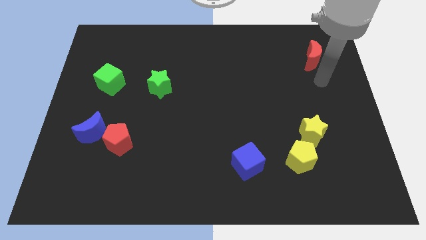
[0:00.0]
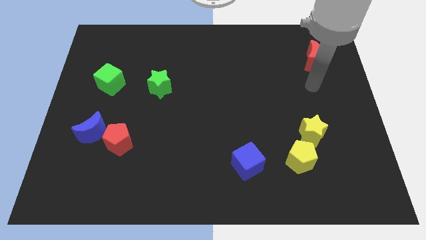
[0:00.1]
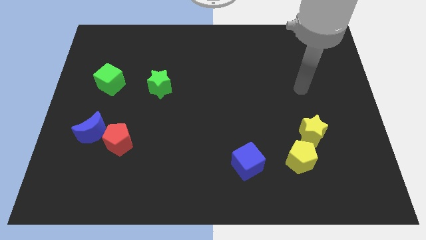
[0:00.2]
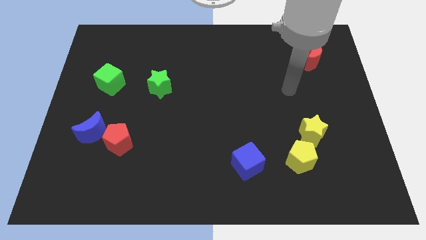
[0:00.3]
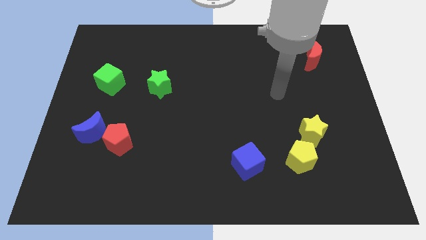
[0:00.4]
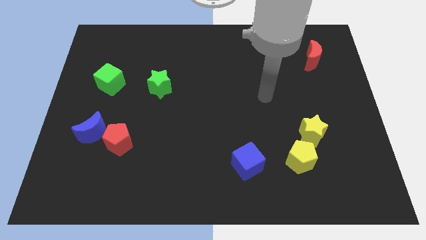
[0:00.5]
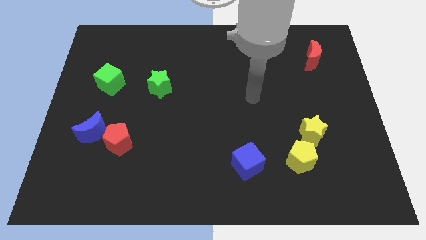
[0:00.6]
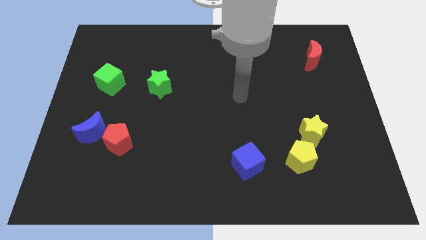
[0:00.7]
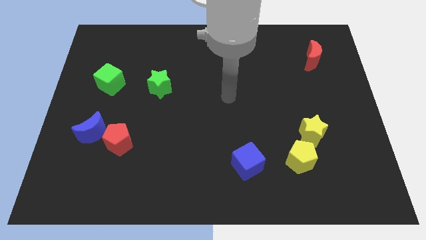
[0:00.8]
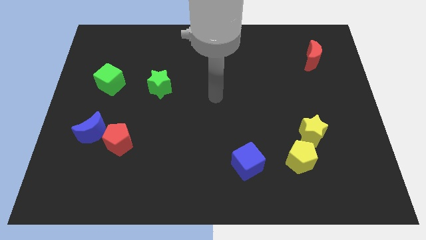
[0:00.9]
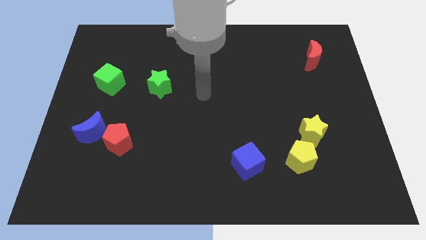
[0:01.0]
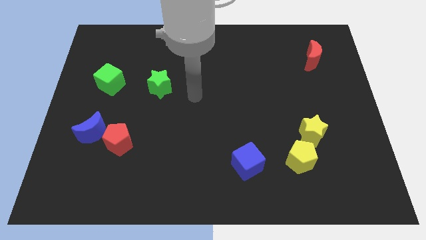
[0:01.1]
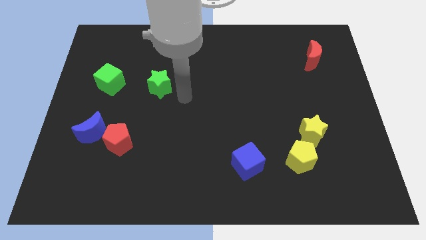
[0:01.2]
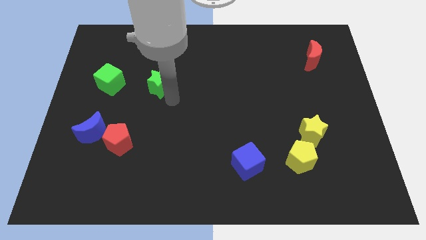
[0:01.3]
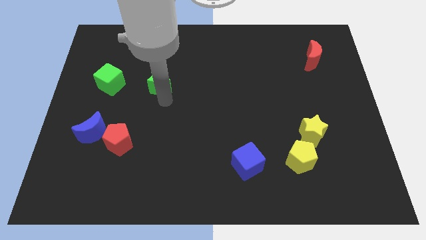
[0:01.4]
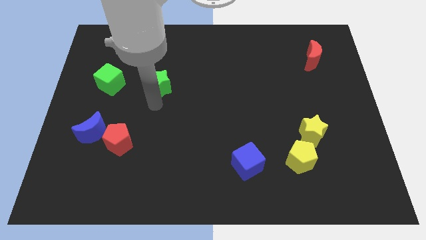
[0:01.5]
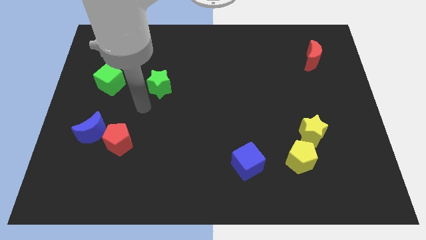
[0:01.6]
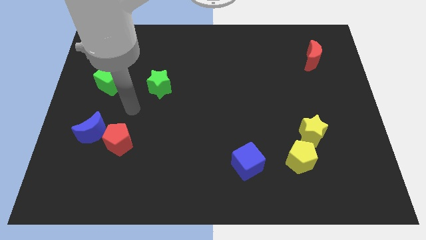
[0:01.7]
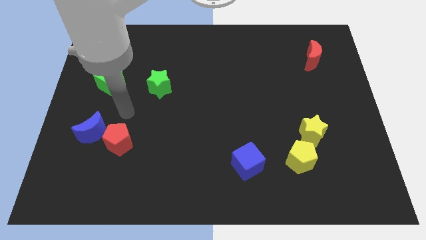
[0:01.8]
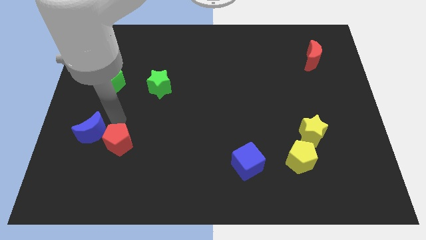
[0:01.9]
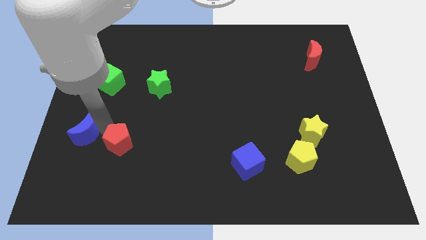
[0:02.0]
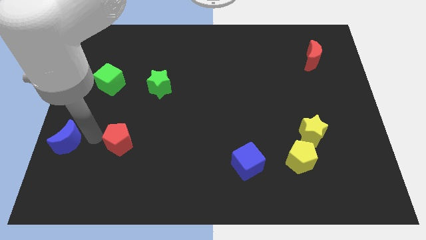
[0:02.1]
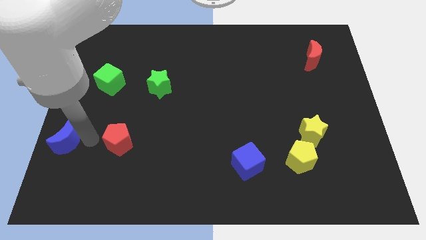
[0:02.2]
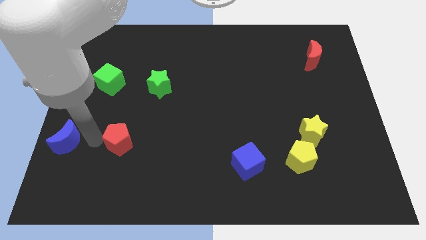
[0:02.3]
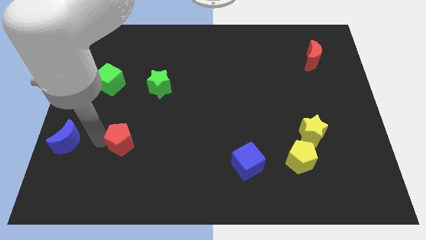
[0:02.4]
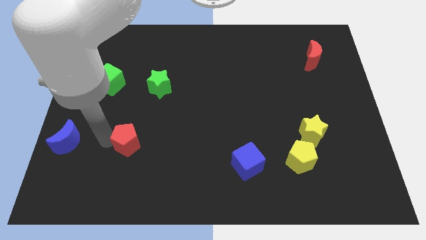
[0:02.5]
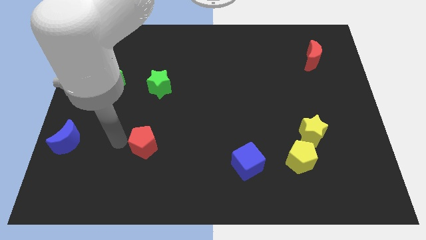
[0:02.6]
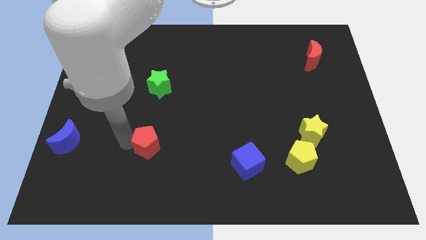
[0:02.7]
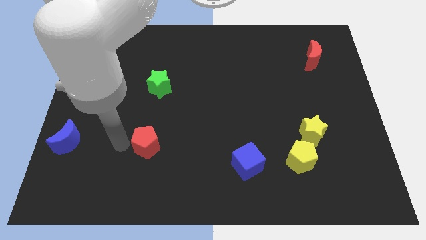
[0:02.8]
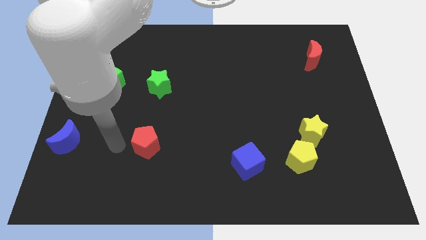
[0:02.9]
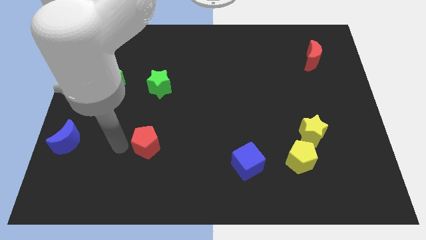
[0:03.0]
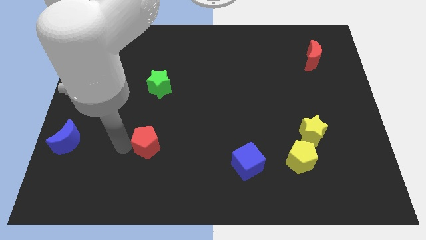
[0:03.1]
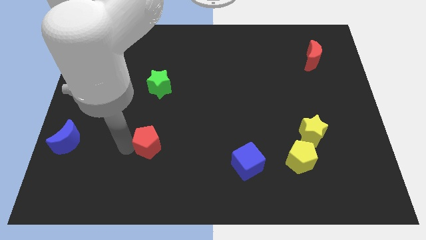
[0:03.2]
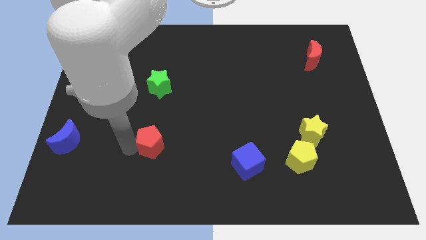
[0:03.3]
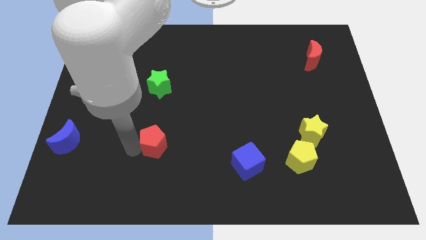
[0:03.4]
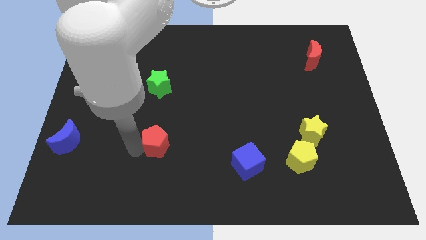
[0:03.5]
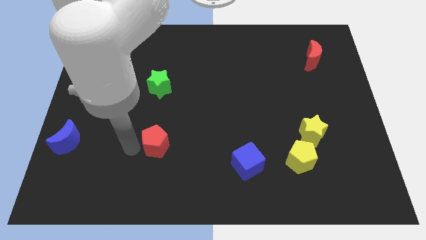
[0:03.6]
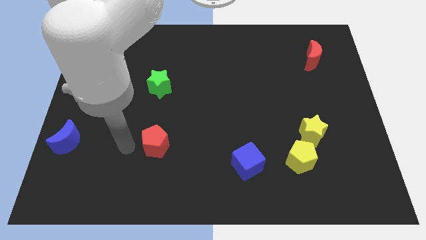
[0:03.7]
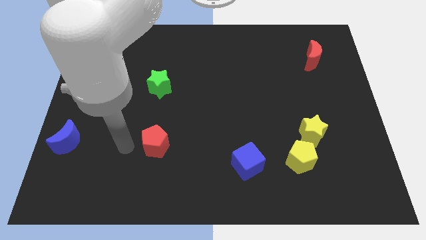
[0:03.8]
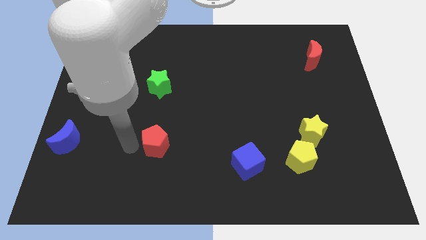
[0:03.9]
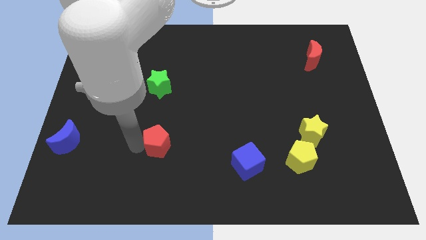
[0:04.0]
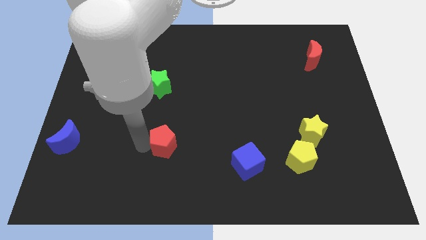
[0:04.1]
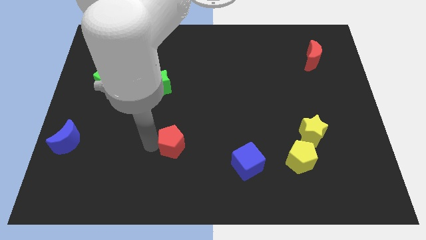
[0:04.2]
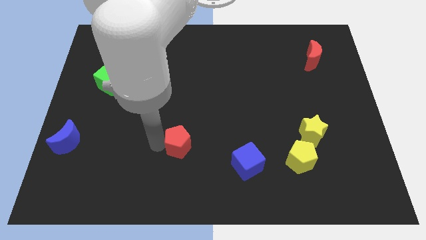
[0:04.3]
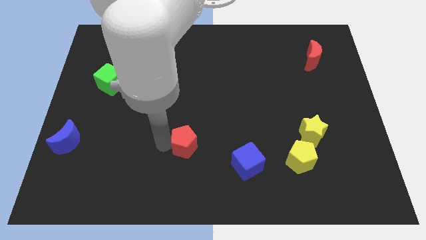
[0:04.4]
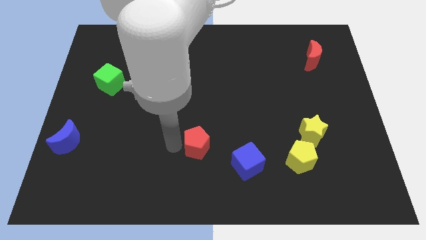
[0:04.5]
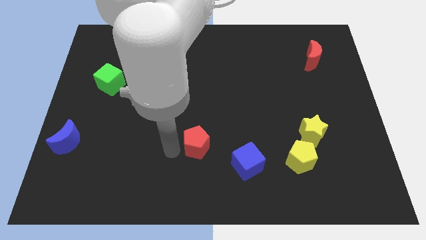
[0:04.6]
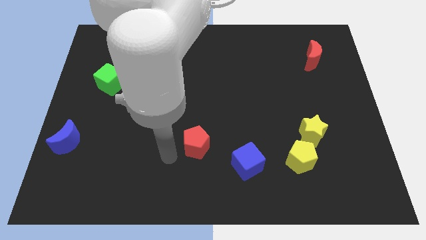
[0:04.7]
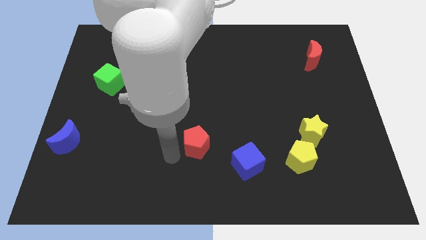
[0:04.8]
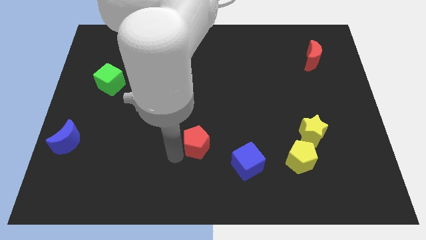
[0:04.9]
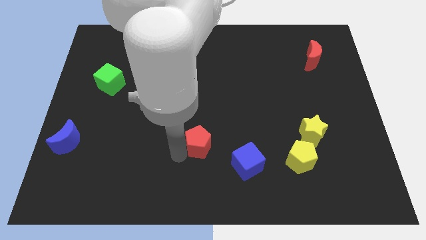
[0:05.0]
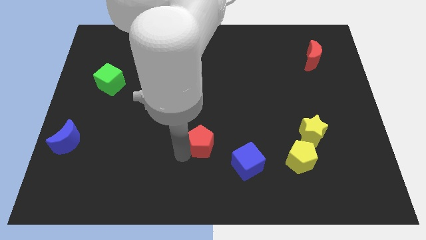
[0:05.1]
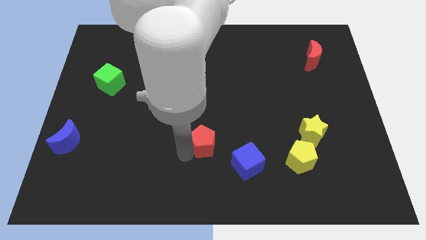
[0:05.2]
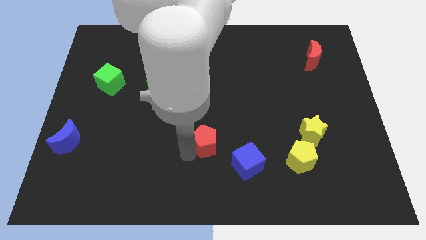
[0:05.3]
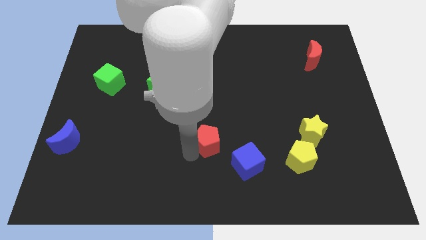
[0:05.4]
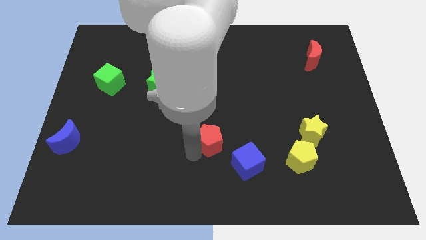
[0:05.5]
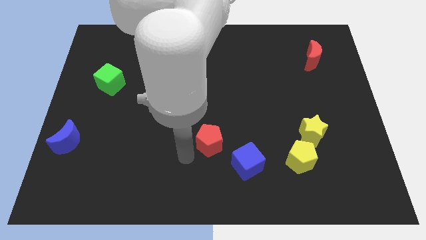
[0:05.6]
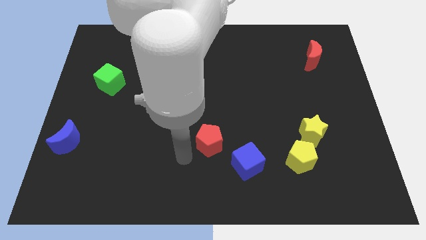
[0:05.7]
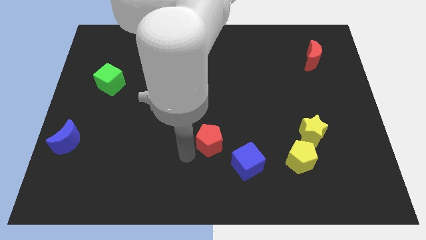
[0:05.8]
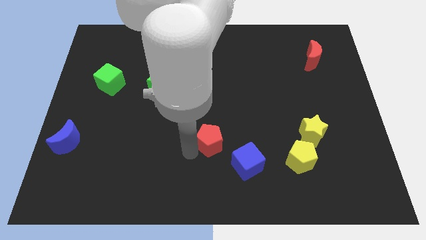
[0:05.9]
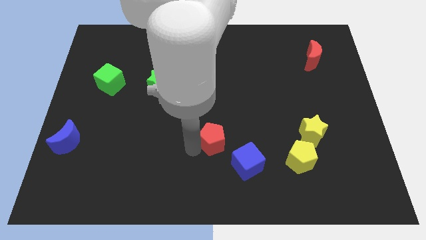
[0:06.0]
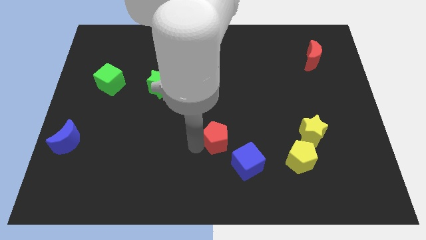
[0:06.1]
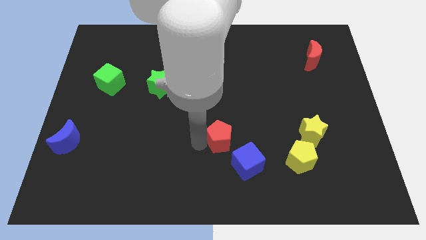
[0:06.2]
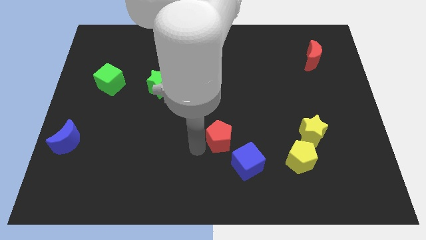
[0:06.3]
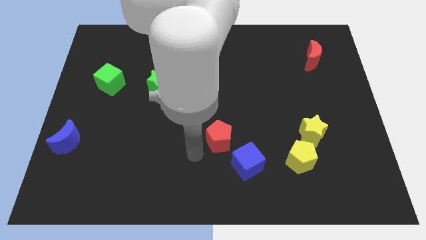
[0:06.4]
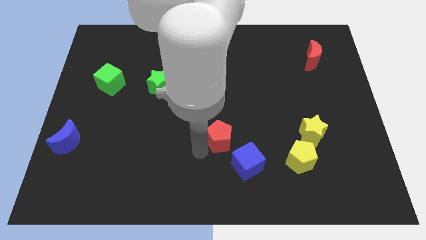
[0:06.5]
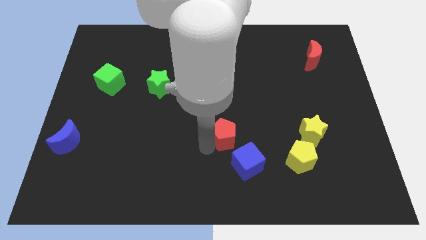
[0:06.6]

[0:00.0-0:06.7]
slide the red pentagon to the top of the blue cube

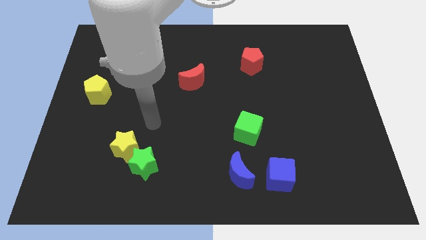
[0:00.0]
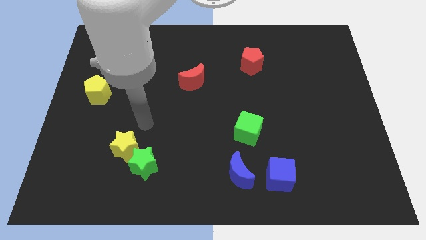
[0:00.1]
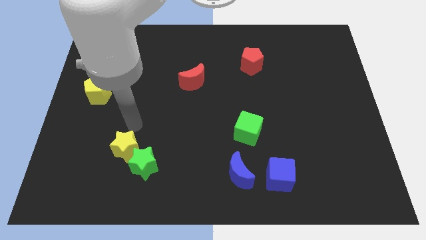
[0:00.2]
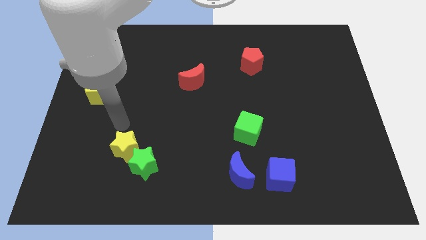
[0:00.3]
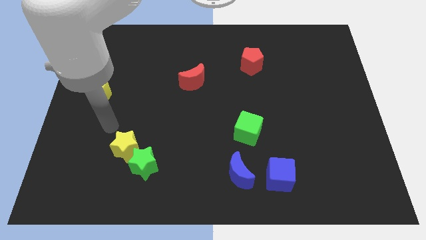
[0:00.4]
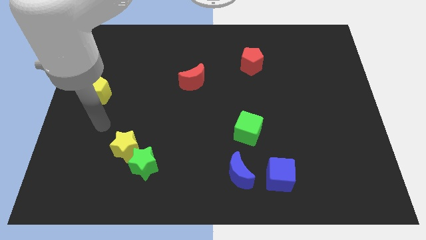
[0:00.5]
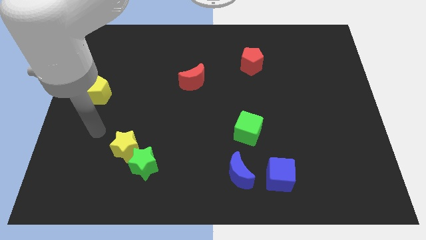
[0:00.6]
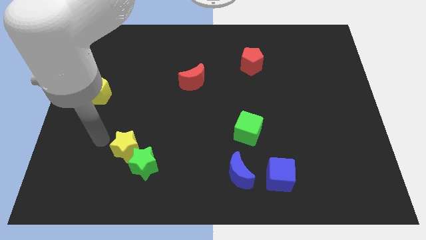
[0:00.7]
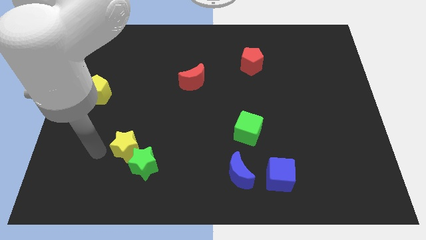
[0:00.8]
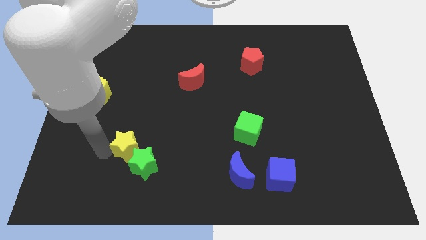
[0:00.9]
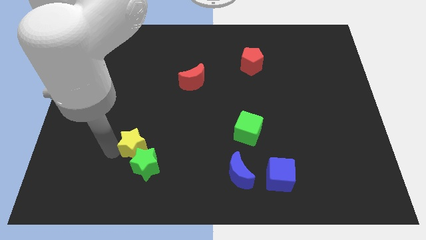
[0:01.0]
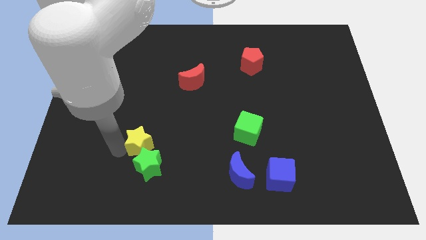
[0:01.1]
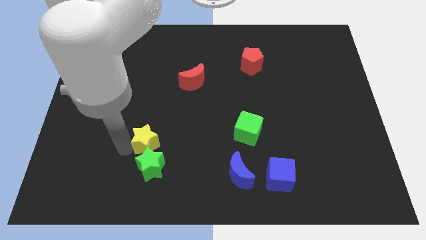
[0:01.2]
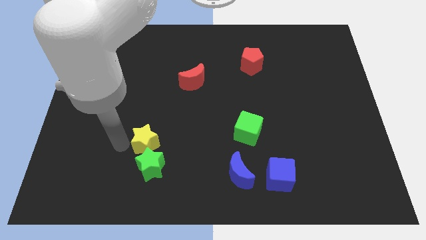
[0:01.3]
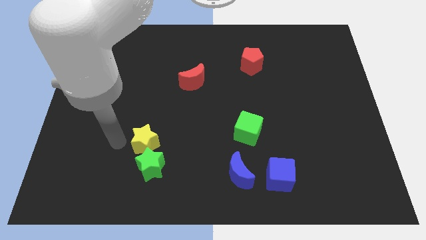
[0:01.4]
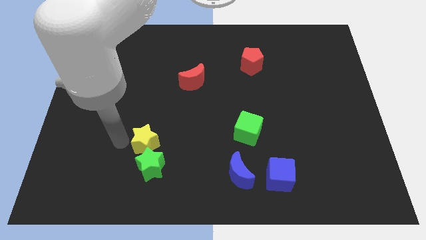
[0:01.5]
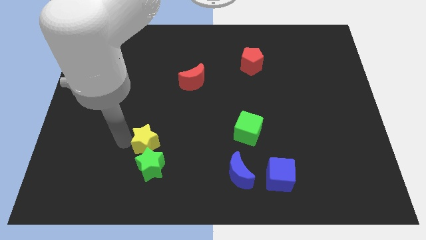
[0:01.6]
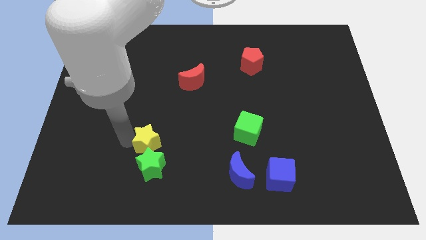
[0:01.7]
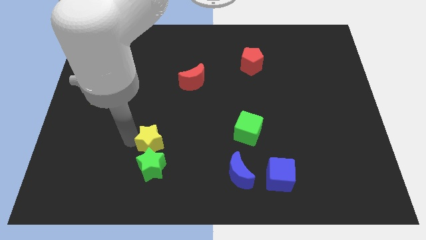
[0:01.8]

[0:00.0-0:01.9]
slide the yellow star to the top right of the green star
